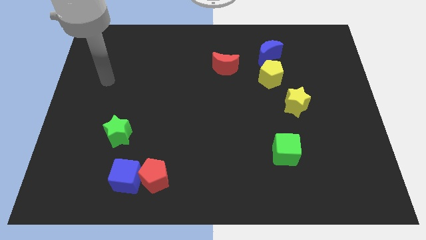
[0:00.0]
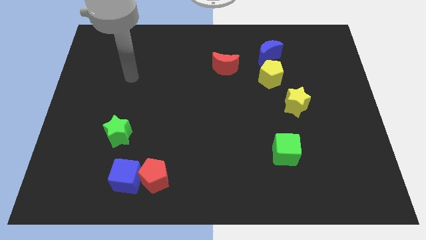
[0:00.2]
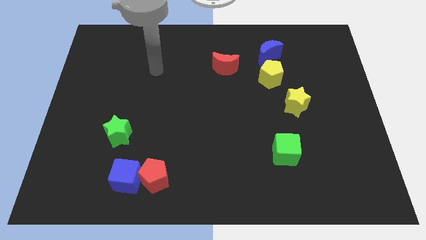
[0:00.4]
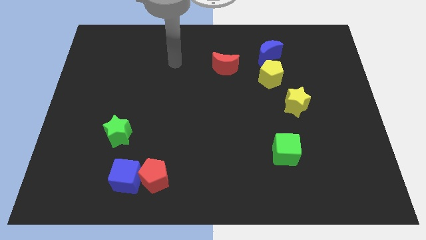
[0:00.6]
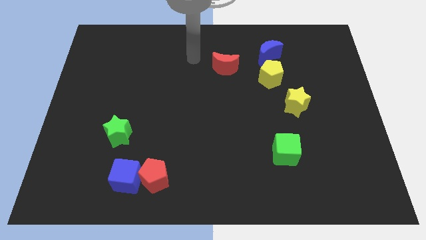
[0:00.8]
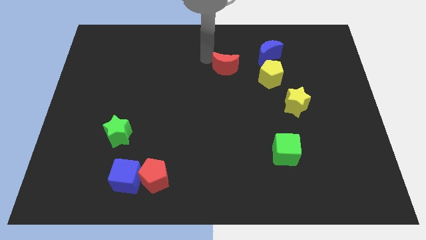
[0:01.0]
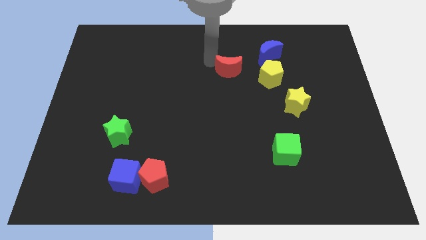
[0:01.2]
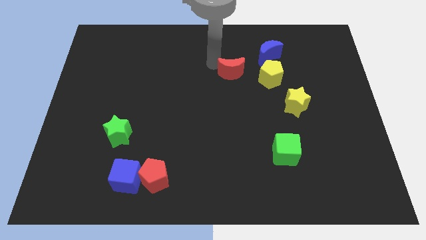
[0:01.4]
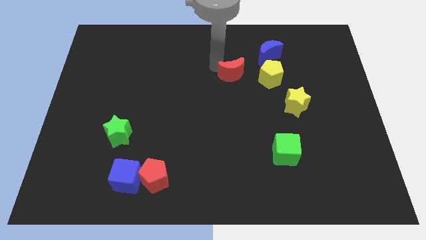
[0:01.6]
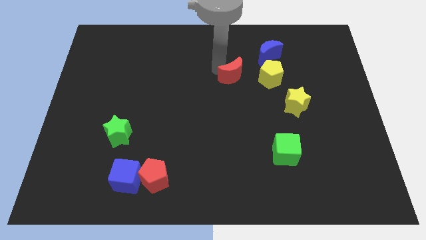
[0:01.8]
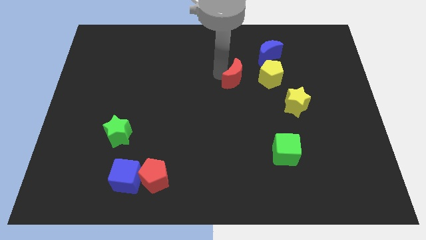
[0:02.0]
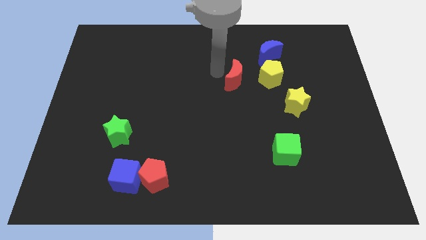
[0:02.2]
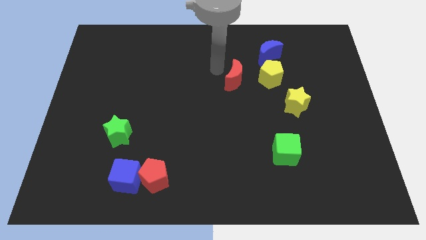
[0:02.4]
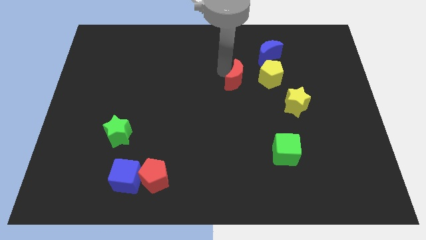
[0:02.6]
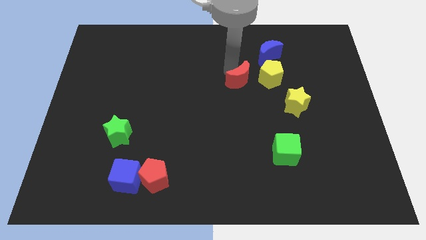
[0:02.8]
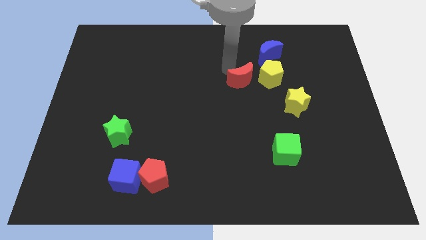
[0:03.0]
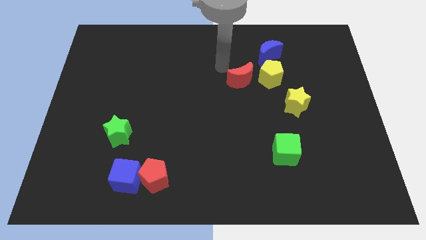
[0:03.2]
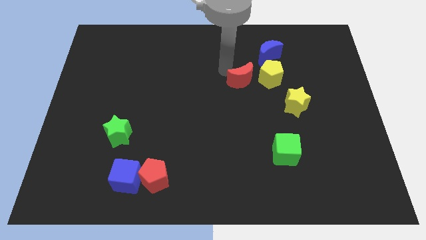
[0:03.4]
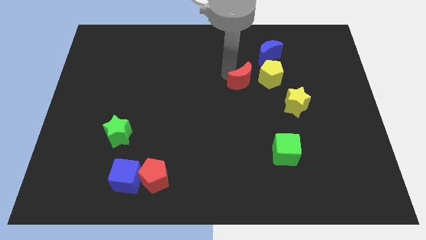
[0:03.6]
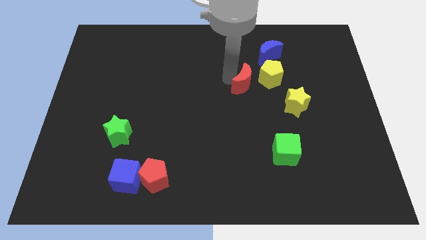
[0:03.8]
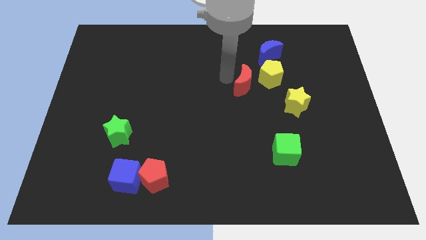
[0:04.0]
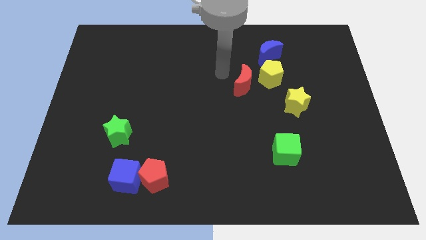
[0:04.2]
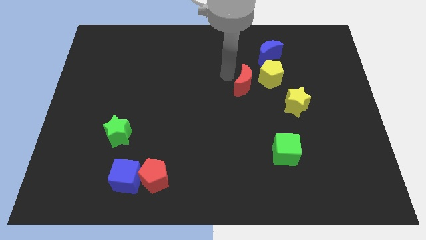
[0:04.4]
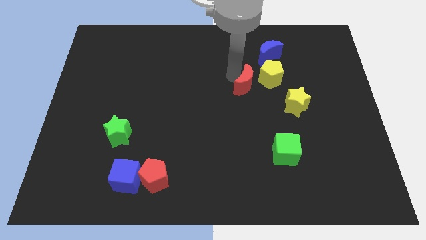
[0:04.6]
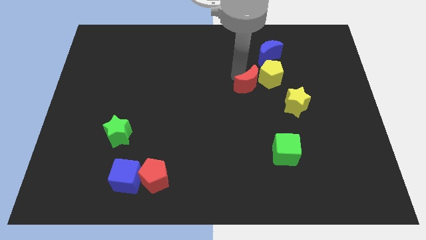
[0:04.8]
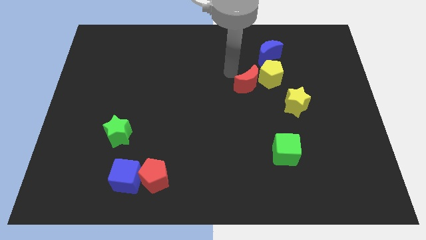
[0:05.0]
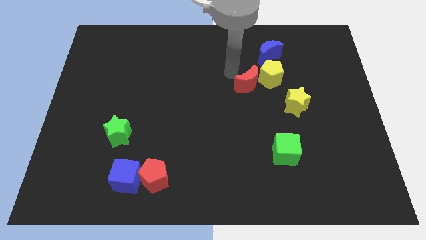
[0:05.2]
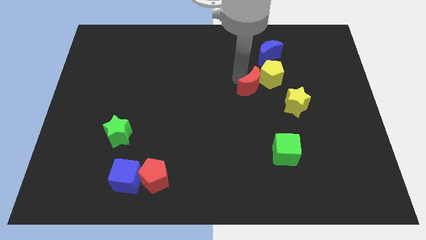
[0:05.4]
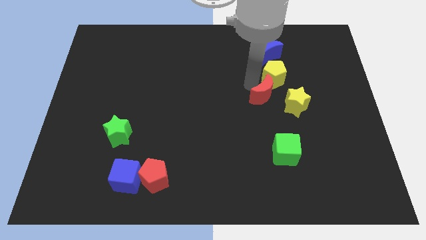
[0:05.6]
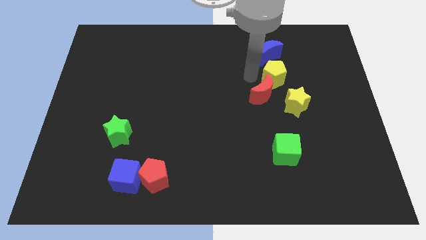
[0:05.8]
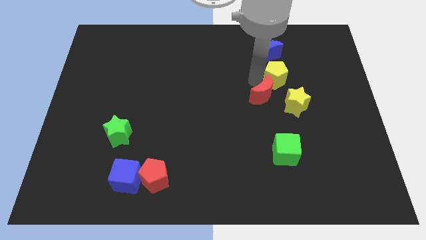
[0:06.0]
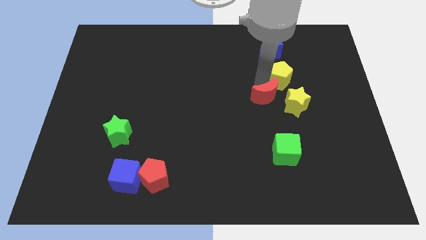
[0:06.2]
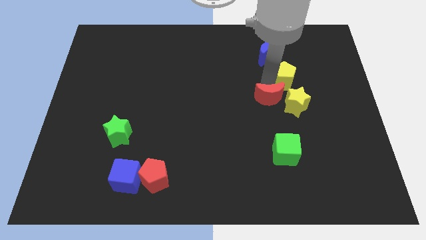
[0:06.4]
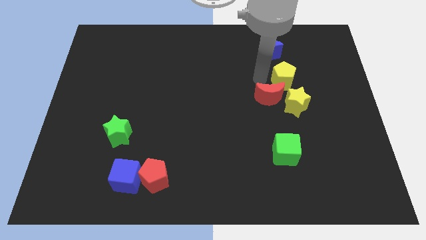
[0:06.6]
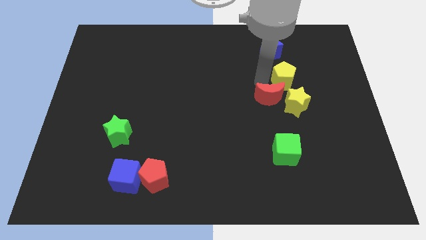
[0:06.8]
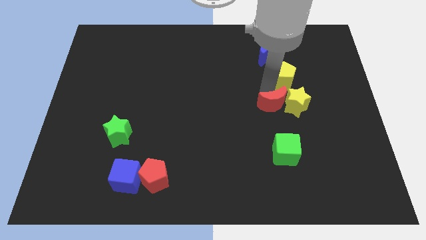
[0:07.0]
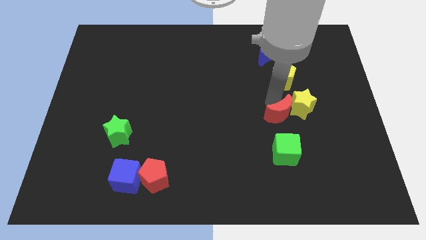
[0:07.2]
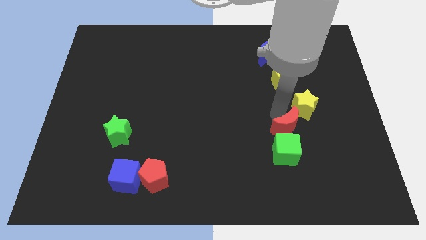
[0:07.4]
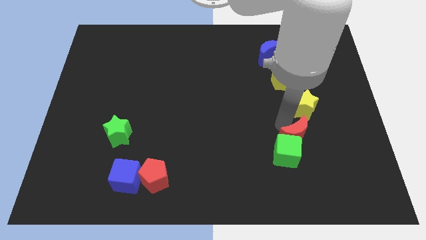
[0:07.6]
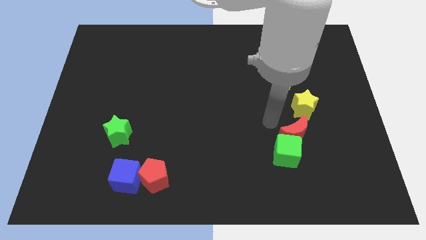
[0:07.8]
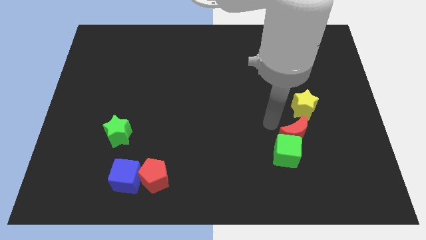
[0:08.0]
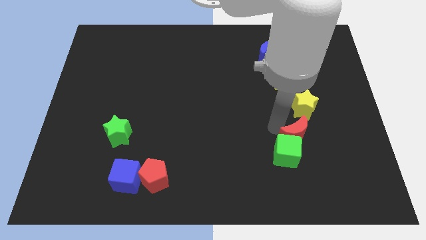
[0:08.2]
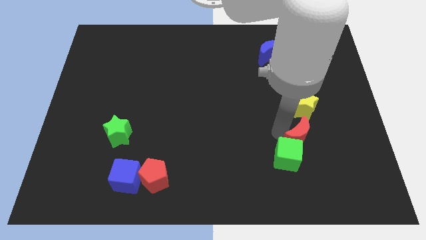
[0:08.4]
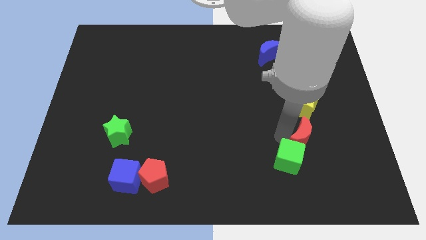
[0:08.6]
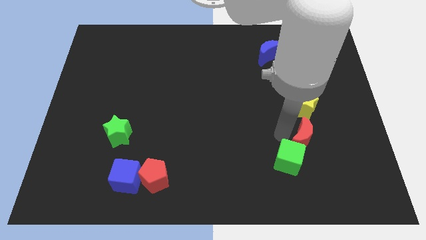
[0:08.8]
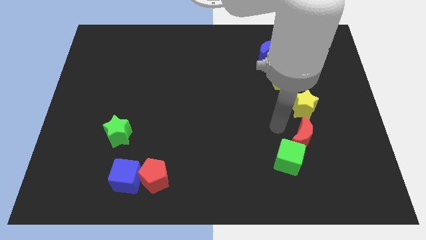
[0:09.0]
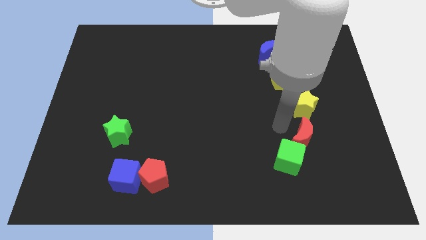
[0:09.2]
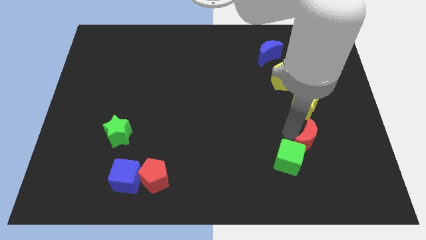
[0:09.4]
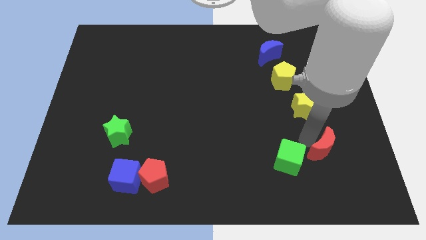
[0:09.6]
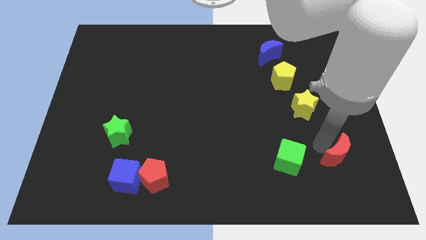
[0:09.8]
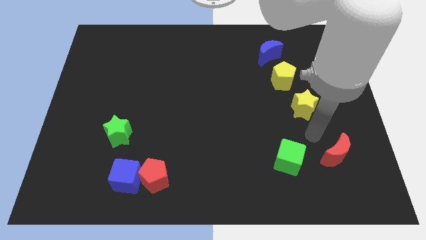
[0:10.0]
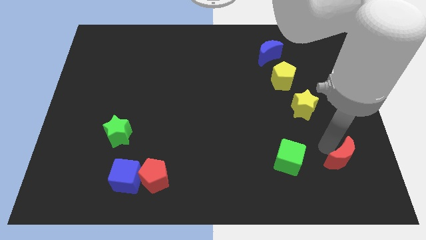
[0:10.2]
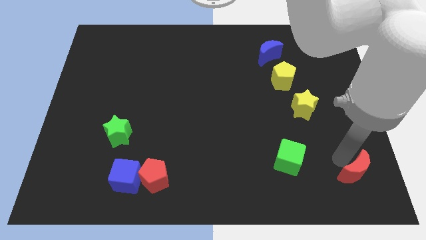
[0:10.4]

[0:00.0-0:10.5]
push the red moon to the bottom right

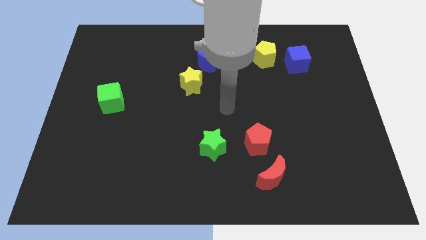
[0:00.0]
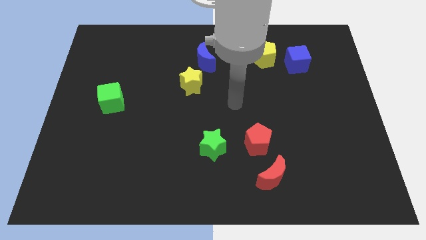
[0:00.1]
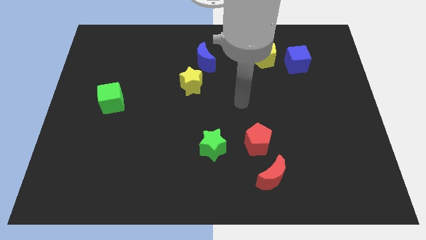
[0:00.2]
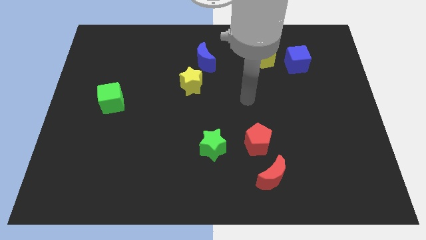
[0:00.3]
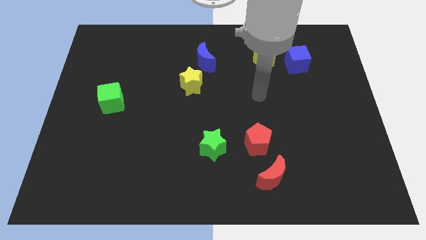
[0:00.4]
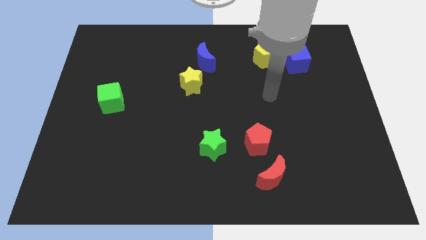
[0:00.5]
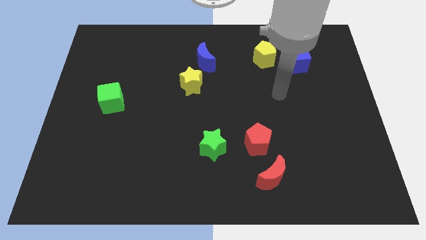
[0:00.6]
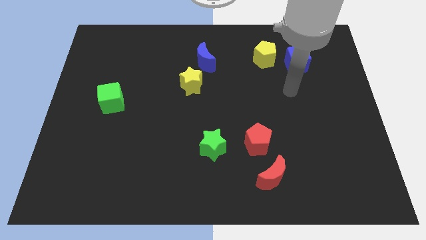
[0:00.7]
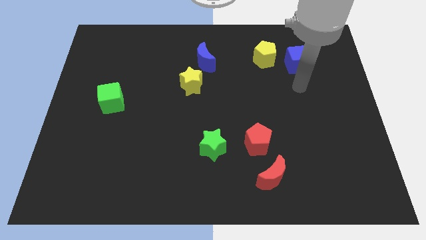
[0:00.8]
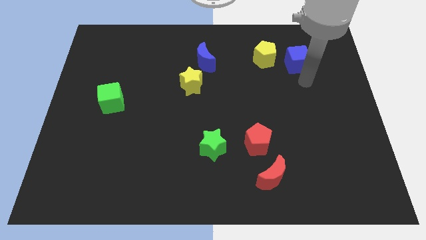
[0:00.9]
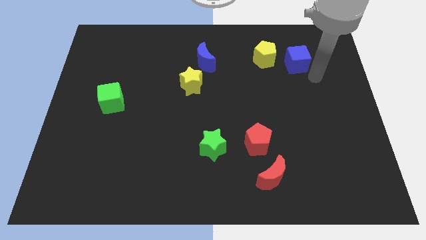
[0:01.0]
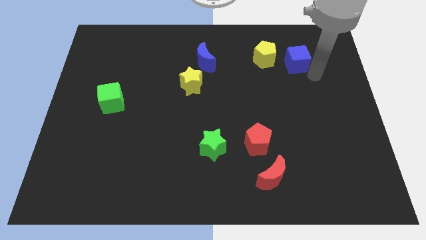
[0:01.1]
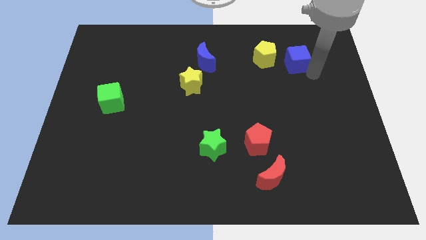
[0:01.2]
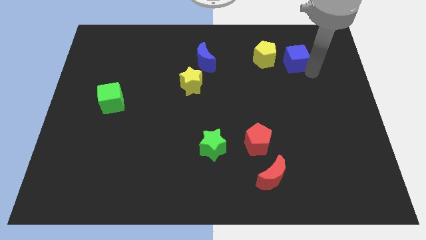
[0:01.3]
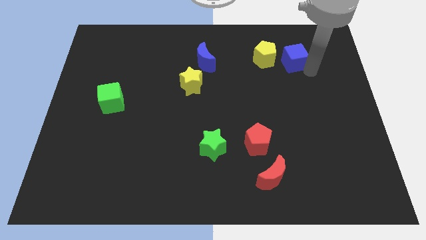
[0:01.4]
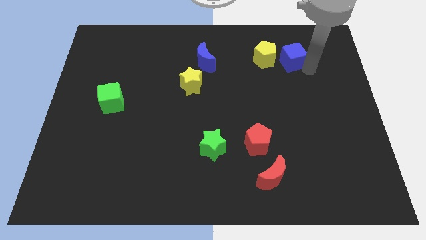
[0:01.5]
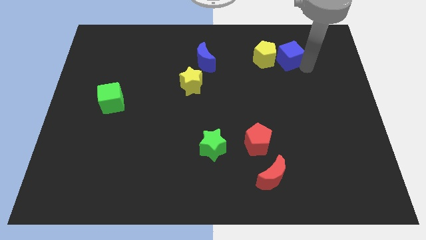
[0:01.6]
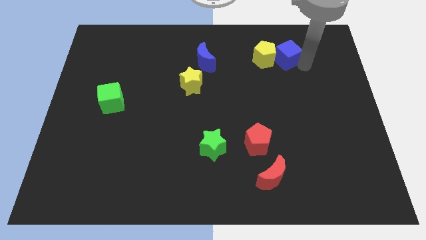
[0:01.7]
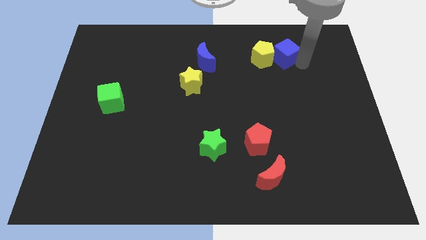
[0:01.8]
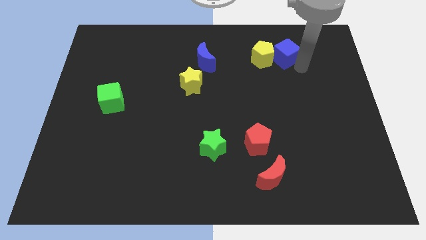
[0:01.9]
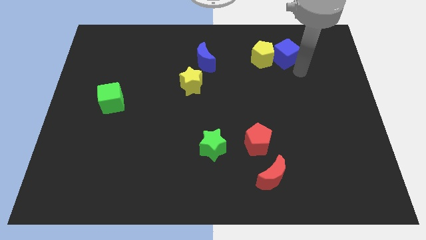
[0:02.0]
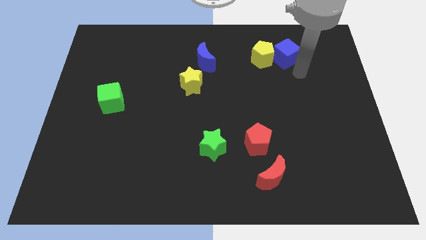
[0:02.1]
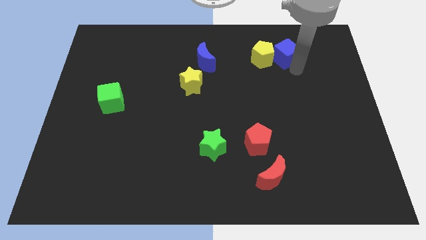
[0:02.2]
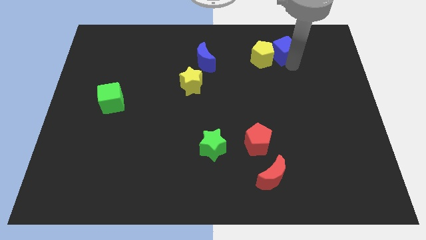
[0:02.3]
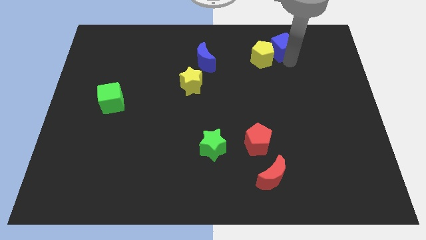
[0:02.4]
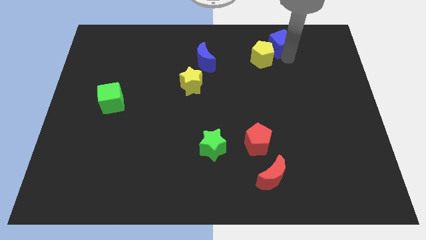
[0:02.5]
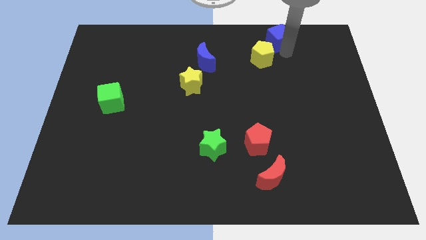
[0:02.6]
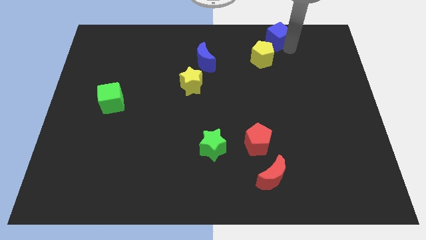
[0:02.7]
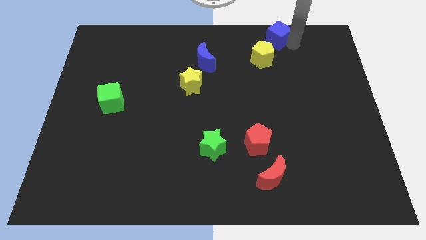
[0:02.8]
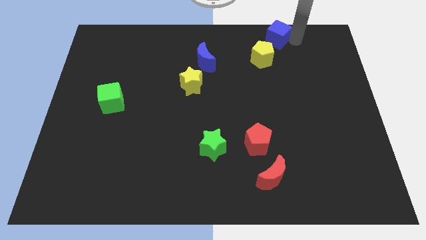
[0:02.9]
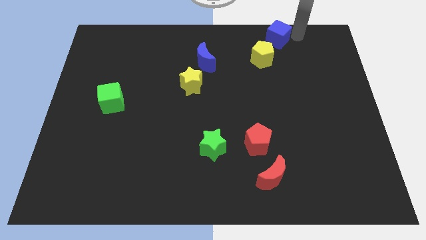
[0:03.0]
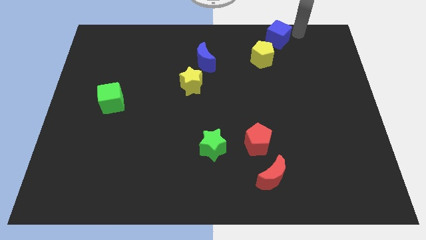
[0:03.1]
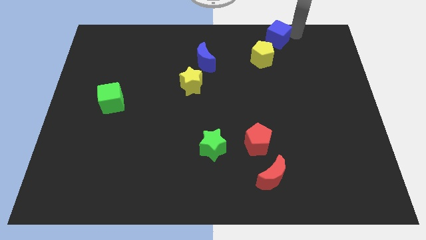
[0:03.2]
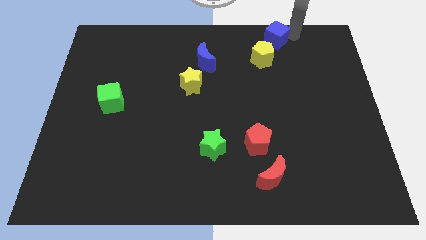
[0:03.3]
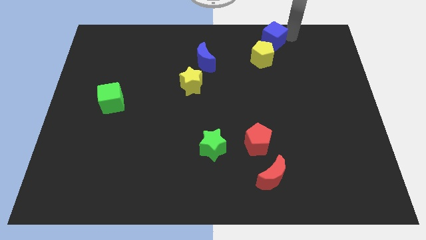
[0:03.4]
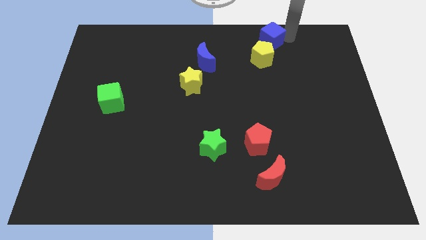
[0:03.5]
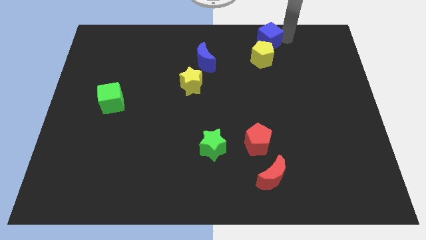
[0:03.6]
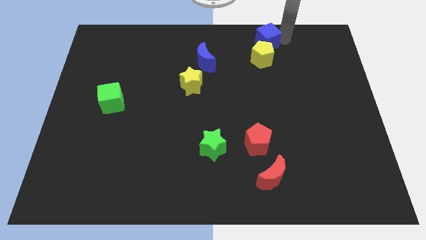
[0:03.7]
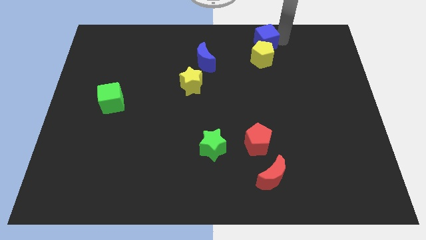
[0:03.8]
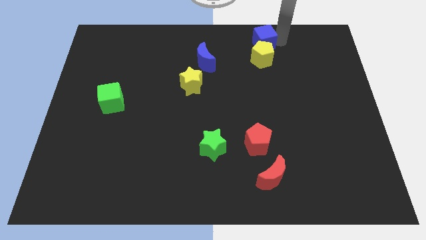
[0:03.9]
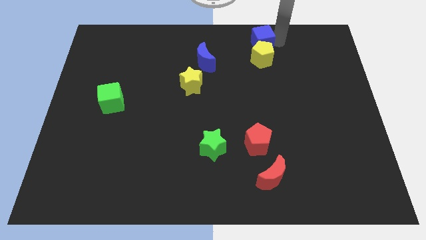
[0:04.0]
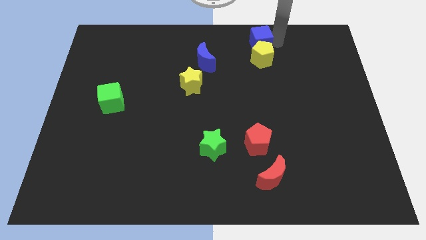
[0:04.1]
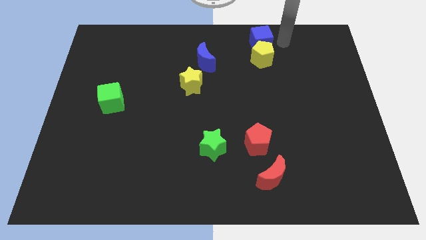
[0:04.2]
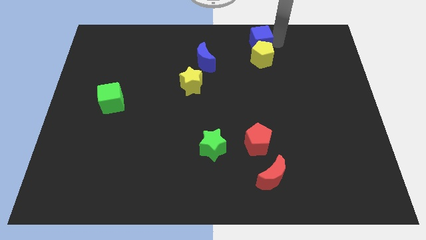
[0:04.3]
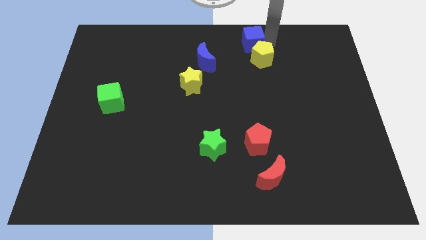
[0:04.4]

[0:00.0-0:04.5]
push the blue cube to the top
